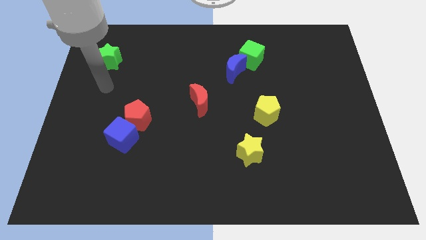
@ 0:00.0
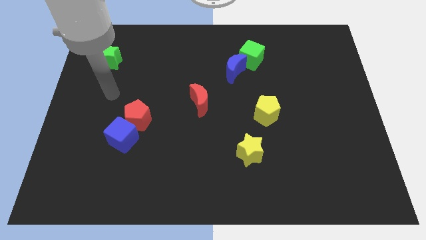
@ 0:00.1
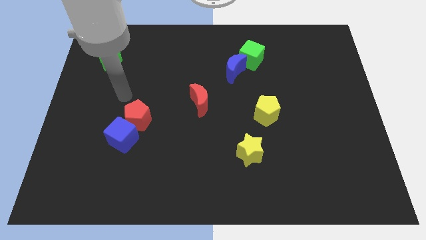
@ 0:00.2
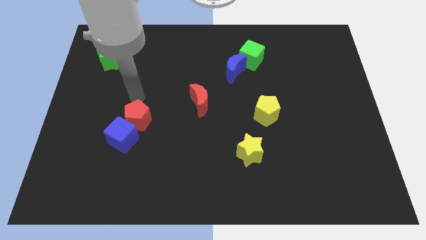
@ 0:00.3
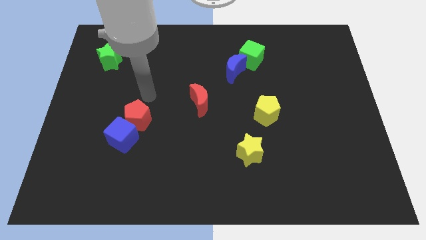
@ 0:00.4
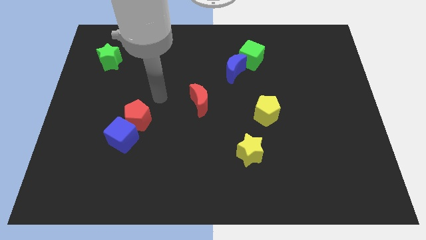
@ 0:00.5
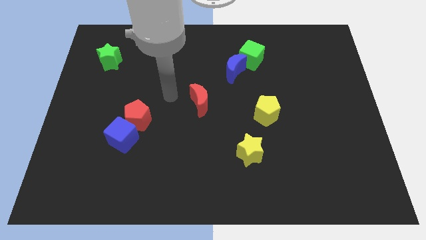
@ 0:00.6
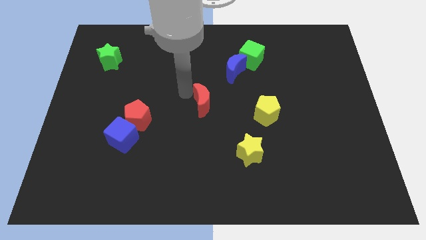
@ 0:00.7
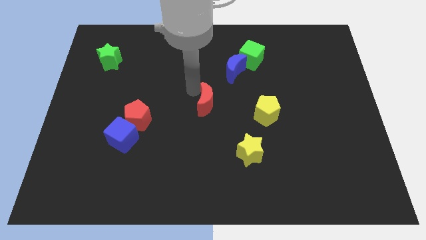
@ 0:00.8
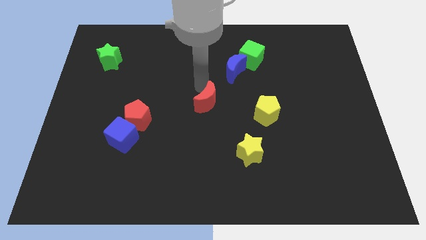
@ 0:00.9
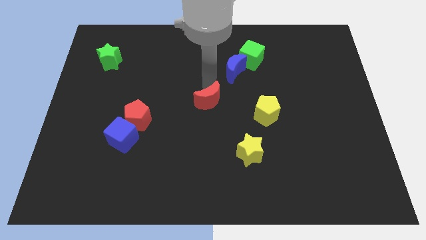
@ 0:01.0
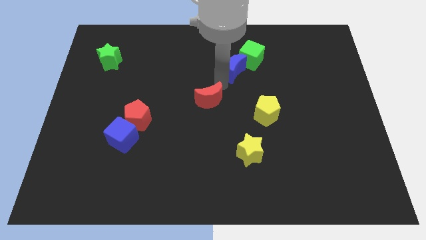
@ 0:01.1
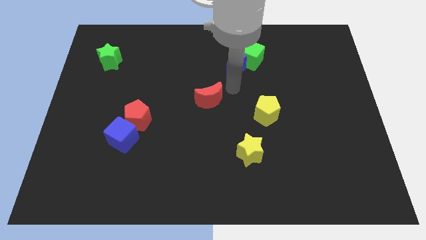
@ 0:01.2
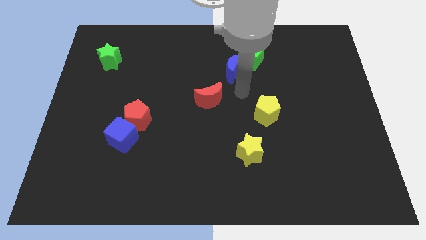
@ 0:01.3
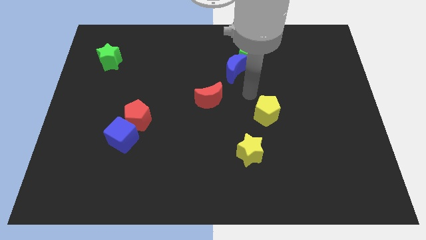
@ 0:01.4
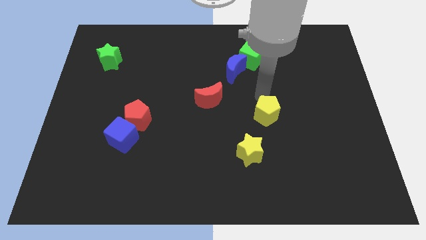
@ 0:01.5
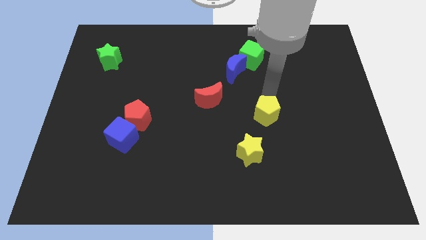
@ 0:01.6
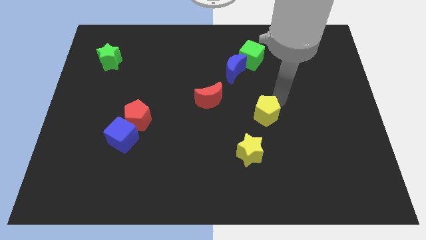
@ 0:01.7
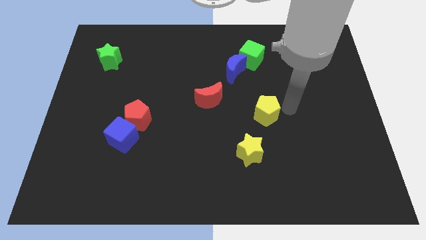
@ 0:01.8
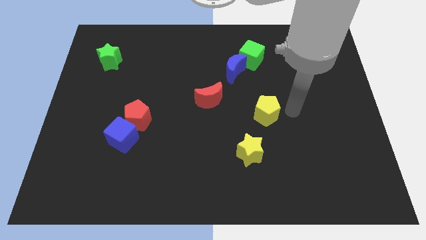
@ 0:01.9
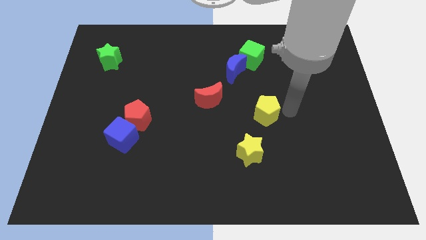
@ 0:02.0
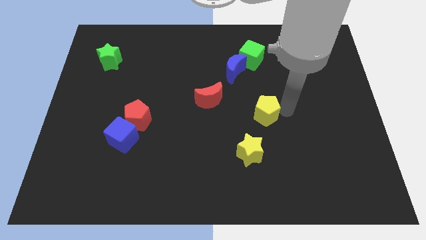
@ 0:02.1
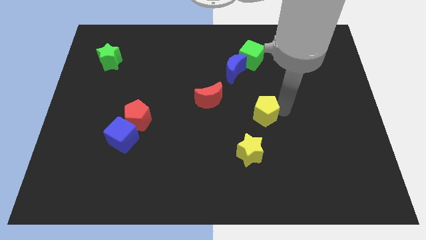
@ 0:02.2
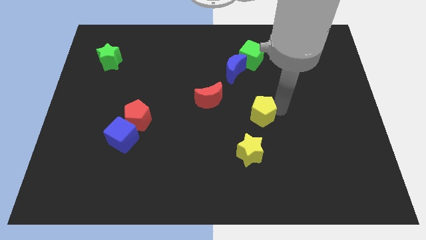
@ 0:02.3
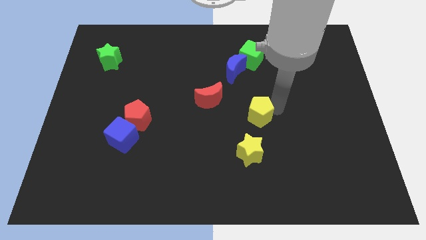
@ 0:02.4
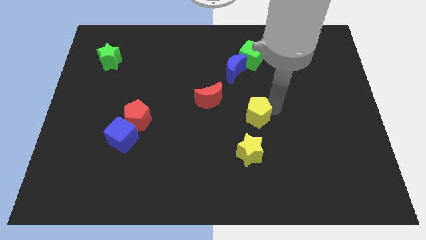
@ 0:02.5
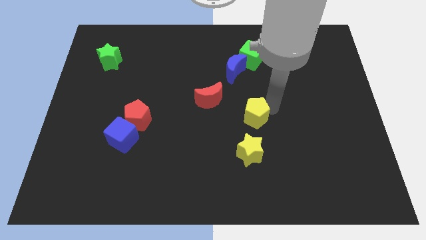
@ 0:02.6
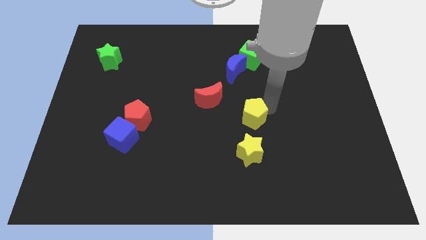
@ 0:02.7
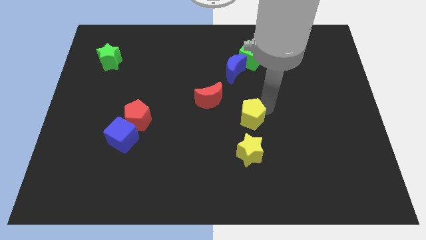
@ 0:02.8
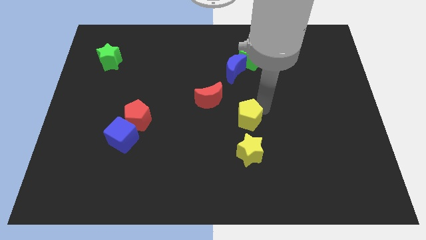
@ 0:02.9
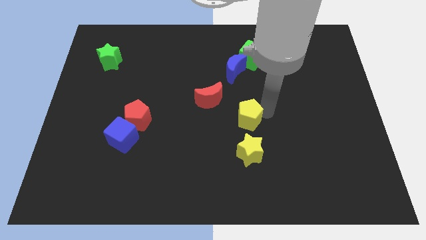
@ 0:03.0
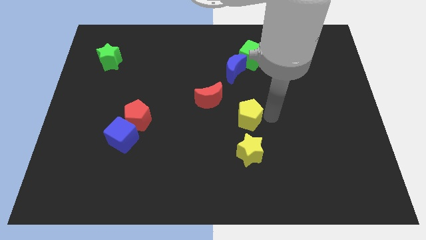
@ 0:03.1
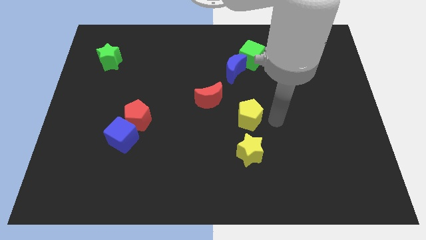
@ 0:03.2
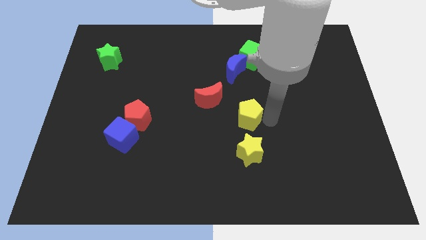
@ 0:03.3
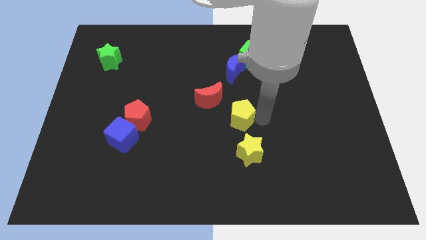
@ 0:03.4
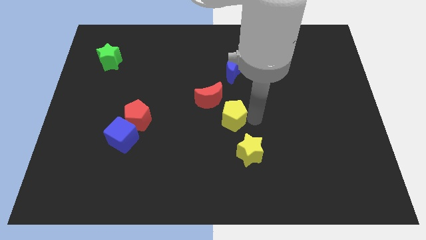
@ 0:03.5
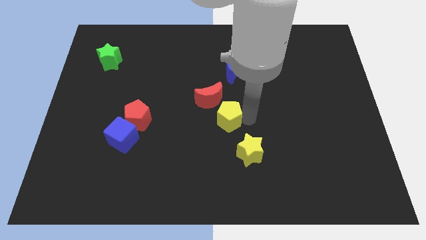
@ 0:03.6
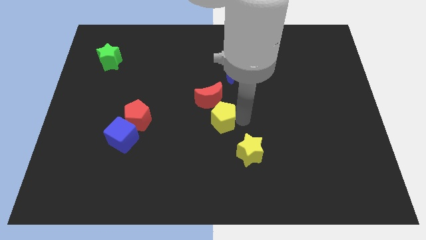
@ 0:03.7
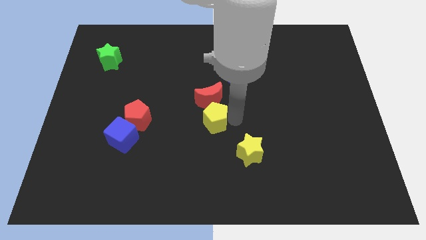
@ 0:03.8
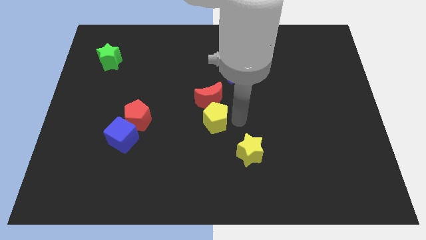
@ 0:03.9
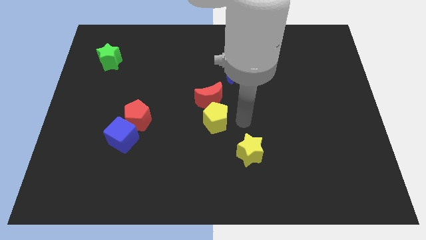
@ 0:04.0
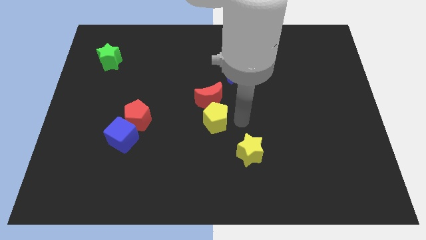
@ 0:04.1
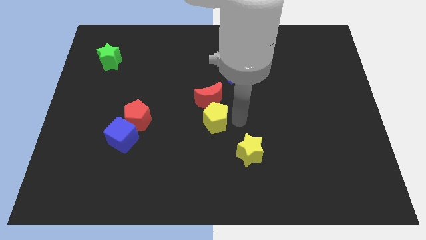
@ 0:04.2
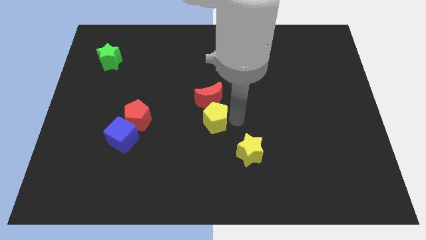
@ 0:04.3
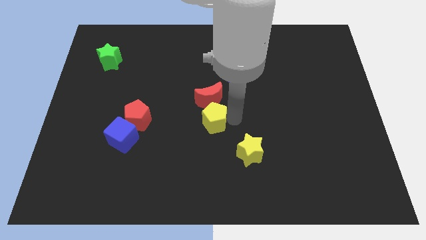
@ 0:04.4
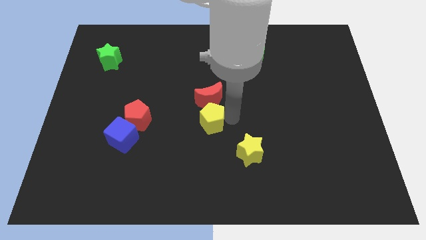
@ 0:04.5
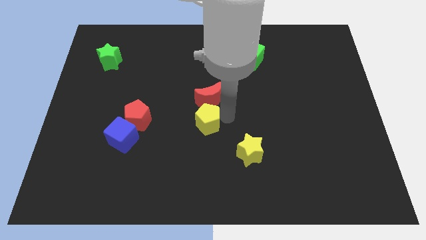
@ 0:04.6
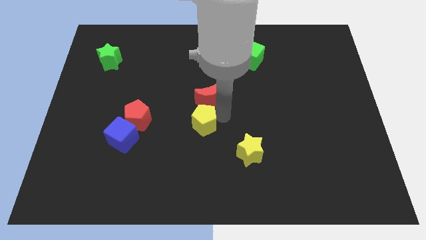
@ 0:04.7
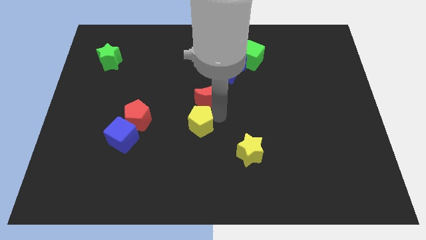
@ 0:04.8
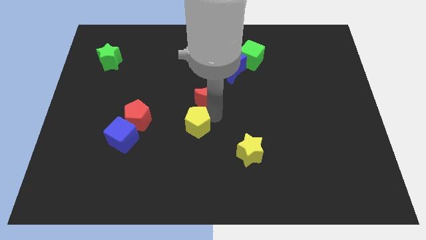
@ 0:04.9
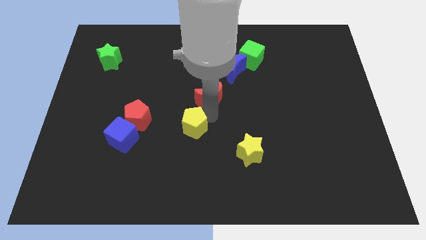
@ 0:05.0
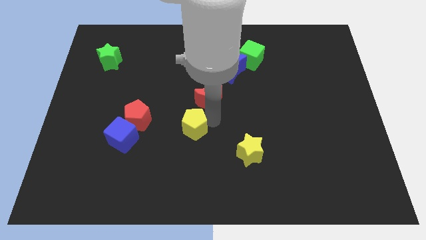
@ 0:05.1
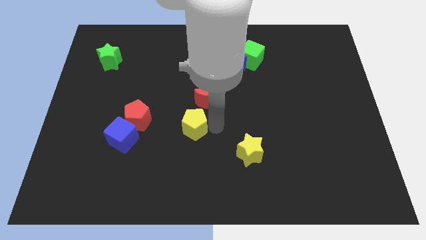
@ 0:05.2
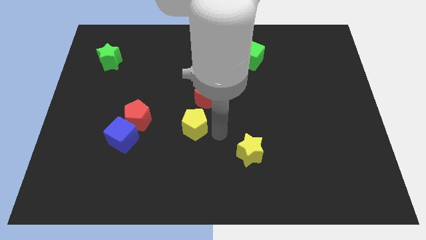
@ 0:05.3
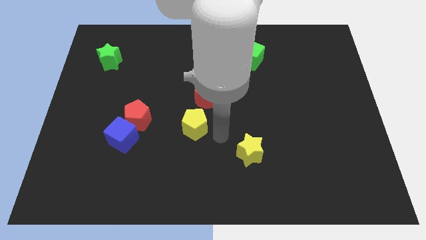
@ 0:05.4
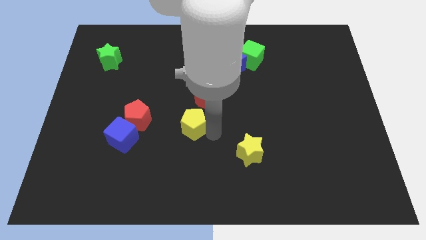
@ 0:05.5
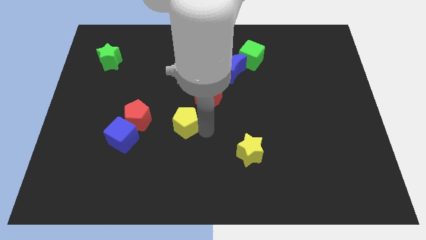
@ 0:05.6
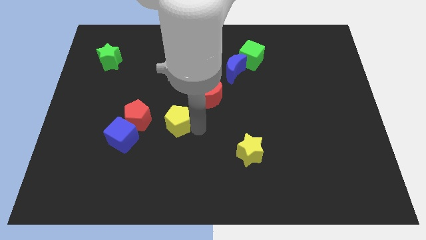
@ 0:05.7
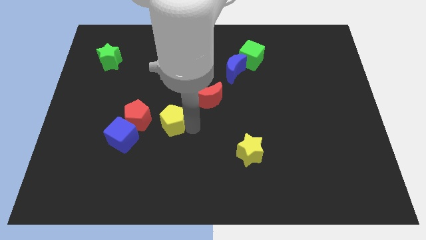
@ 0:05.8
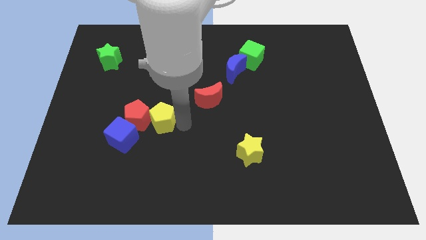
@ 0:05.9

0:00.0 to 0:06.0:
put the yellow pentagon to the red pentagon

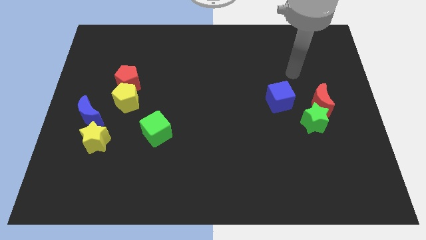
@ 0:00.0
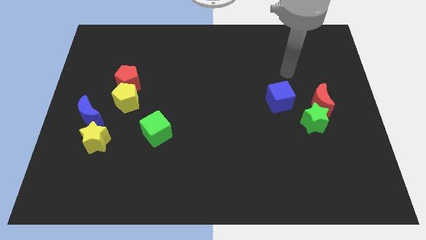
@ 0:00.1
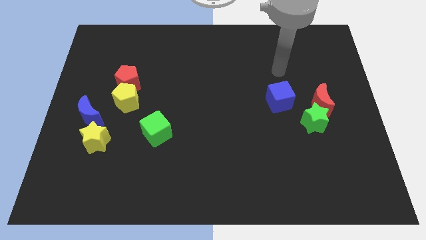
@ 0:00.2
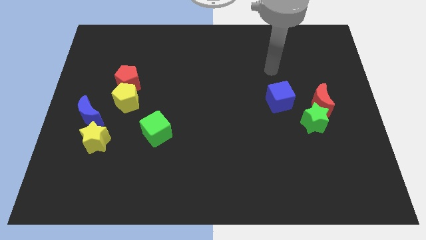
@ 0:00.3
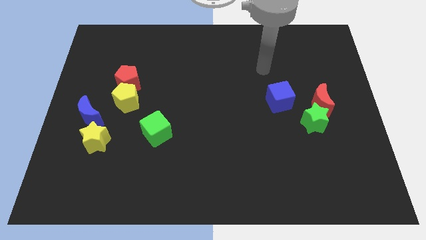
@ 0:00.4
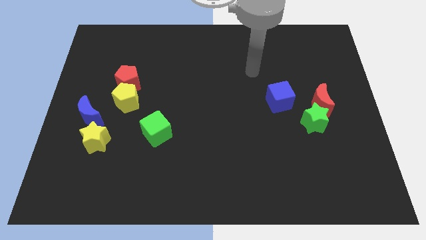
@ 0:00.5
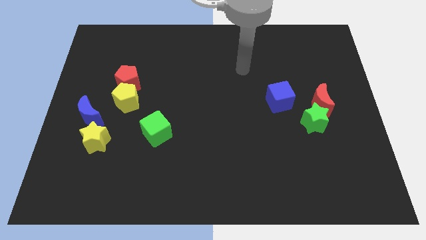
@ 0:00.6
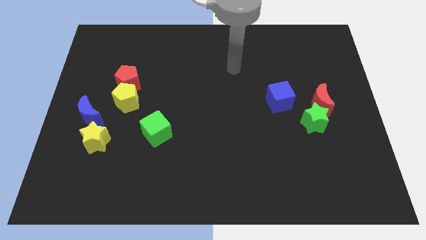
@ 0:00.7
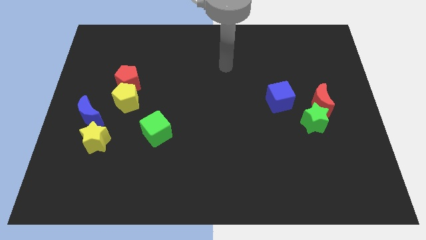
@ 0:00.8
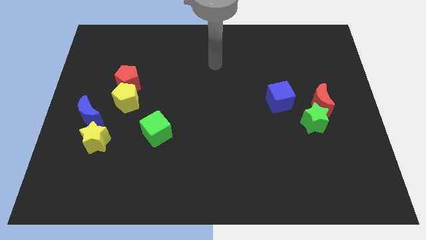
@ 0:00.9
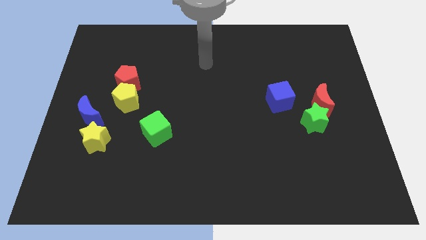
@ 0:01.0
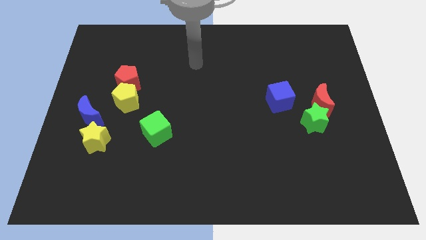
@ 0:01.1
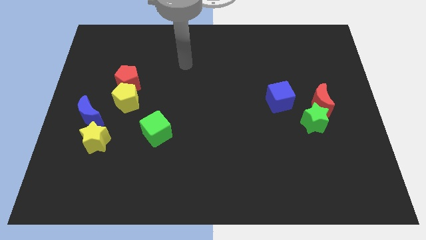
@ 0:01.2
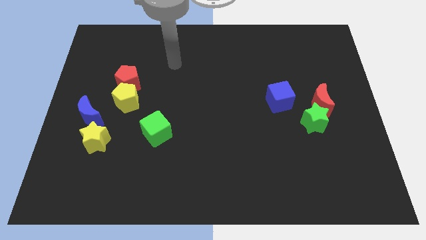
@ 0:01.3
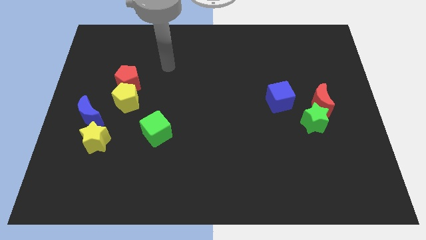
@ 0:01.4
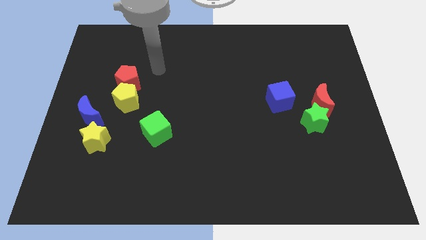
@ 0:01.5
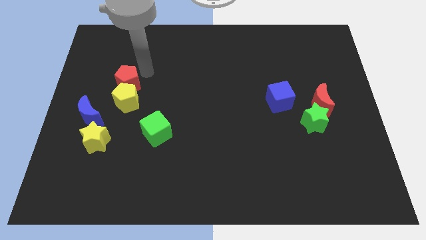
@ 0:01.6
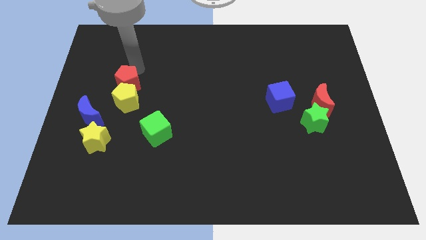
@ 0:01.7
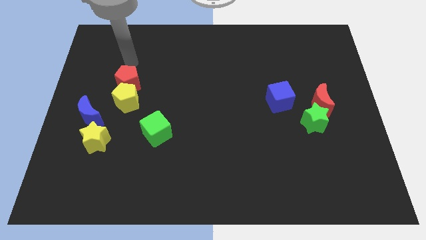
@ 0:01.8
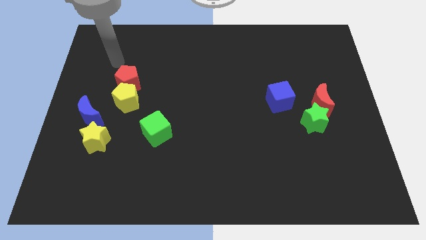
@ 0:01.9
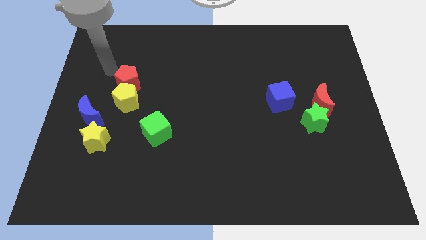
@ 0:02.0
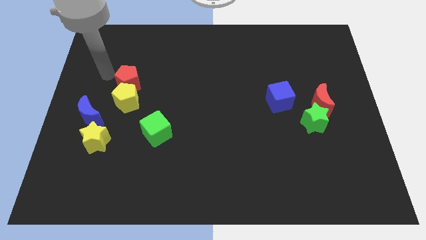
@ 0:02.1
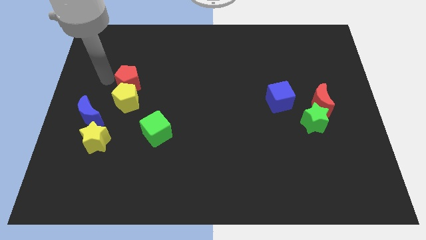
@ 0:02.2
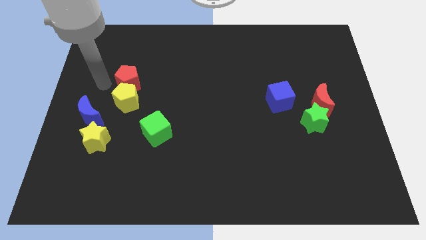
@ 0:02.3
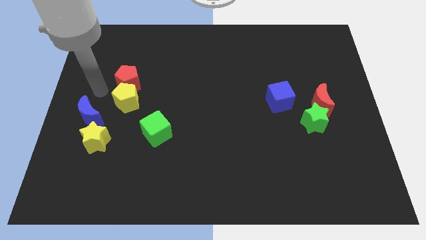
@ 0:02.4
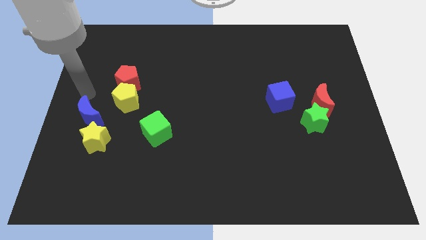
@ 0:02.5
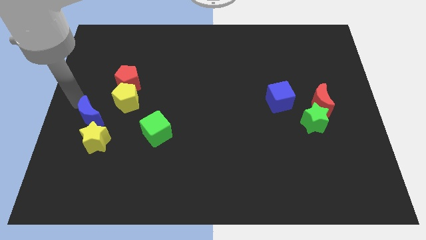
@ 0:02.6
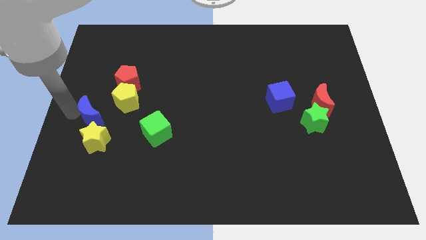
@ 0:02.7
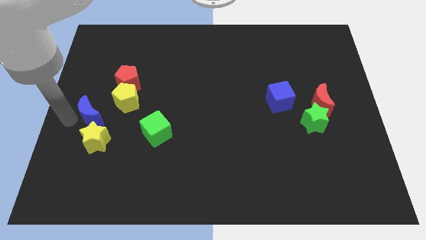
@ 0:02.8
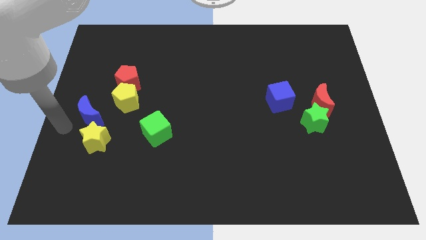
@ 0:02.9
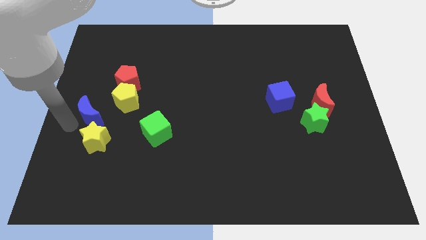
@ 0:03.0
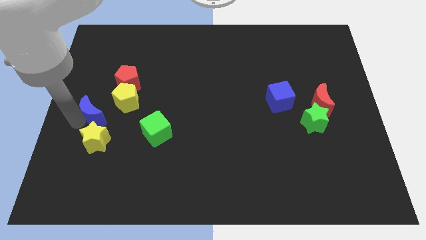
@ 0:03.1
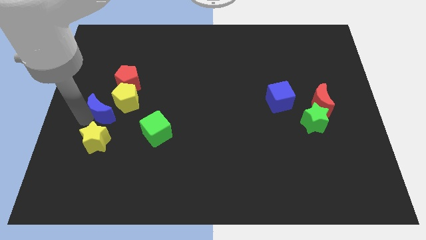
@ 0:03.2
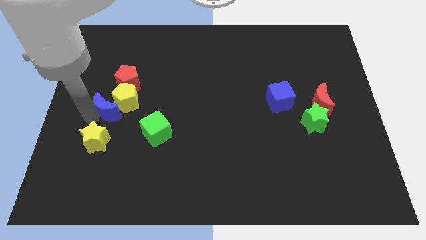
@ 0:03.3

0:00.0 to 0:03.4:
put the blue moon next to the yellow pentagon
